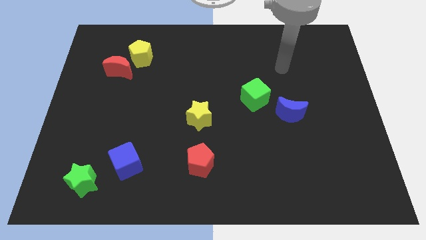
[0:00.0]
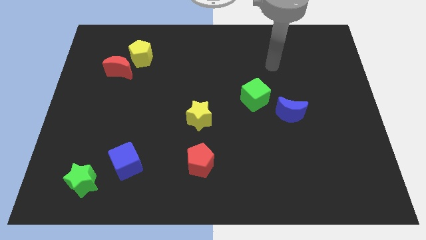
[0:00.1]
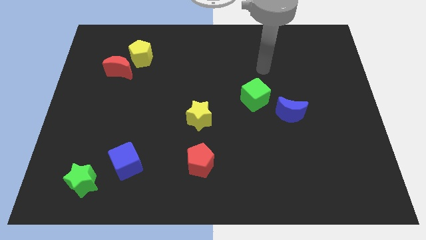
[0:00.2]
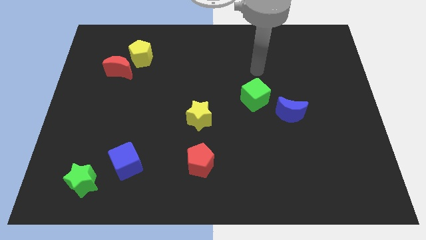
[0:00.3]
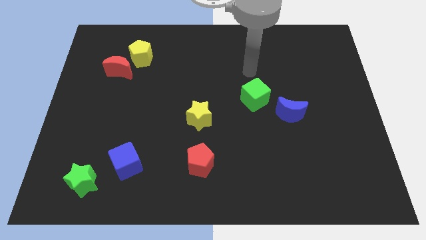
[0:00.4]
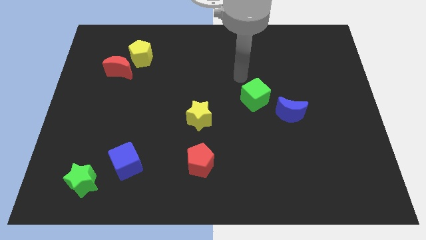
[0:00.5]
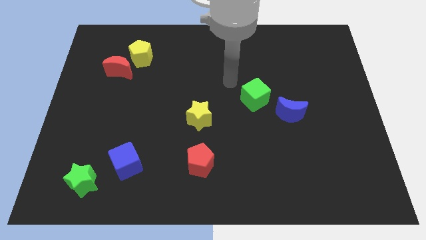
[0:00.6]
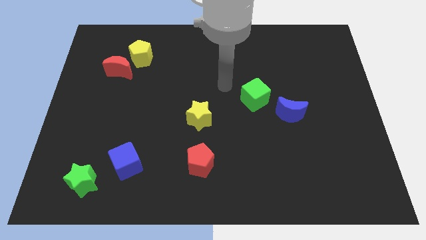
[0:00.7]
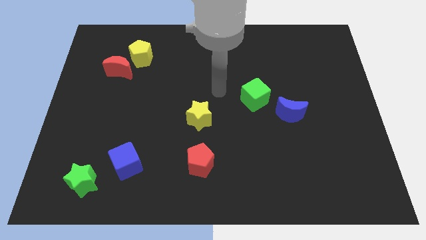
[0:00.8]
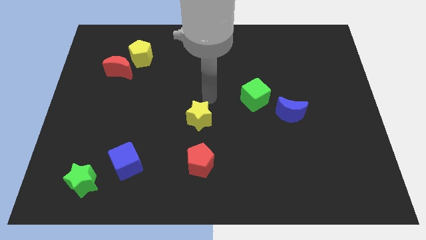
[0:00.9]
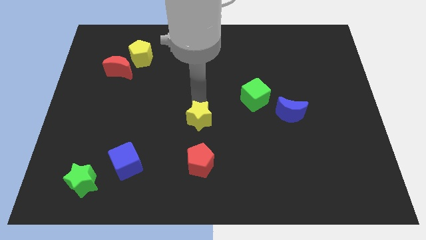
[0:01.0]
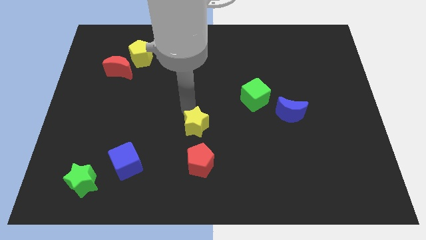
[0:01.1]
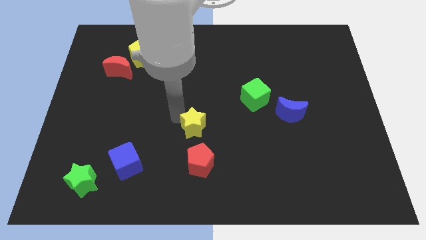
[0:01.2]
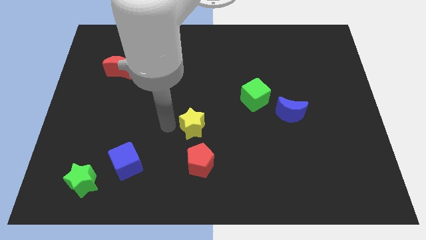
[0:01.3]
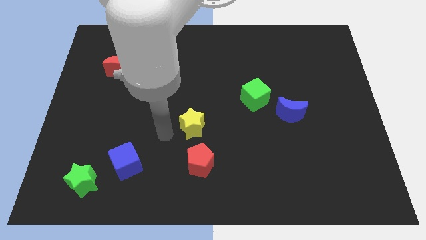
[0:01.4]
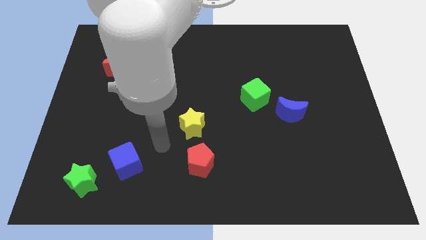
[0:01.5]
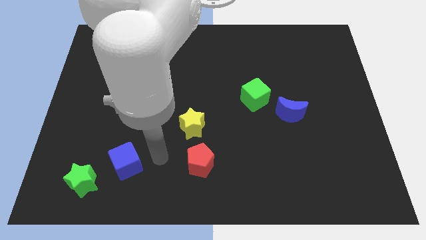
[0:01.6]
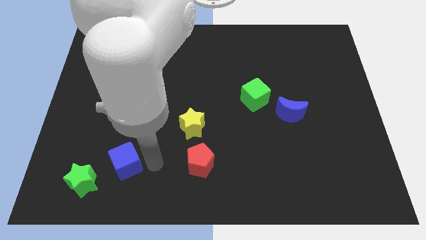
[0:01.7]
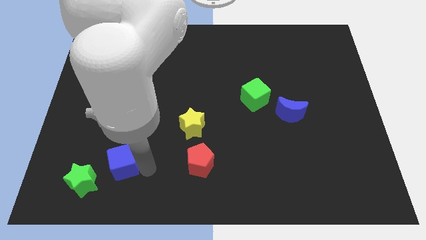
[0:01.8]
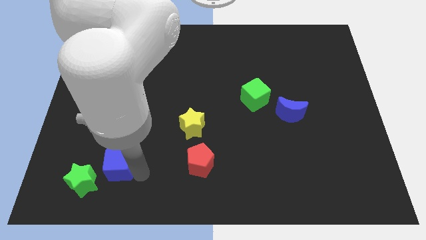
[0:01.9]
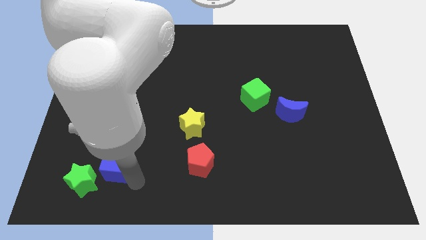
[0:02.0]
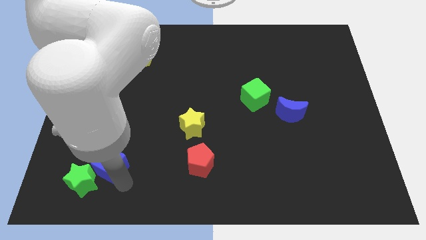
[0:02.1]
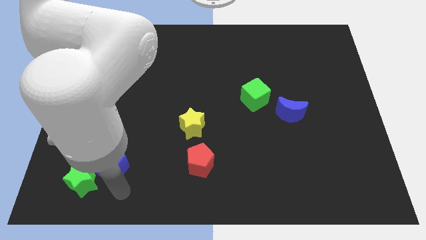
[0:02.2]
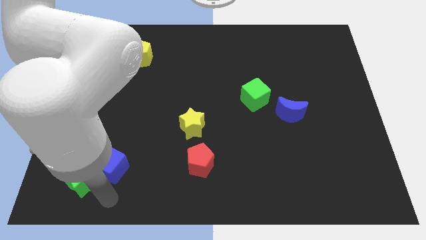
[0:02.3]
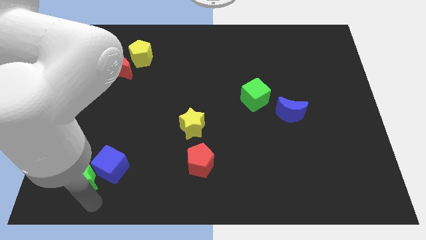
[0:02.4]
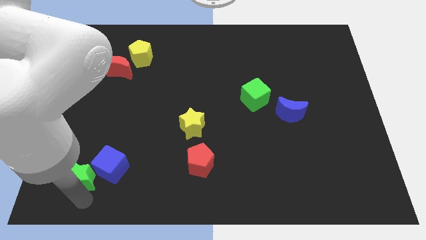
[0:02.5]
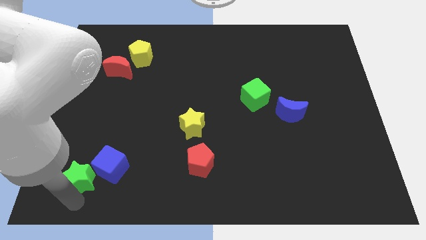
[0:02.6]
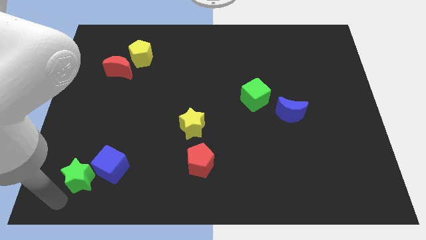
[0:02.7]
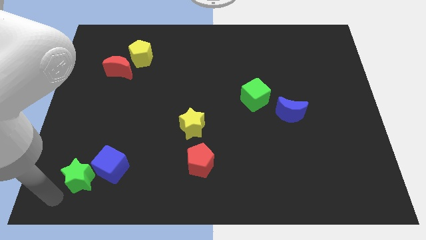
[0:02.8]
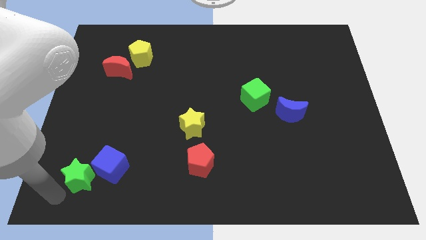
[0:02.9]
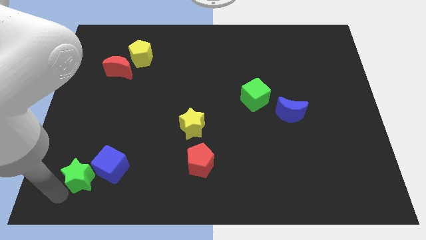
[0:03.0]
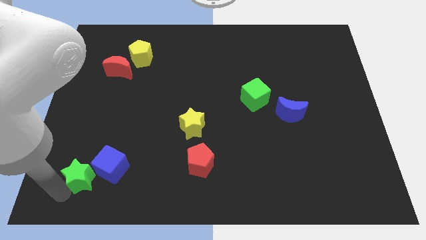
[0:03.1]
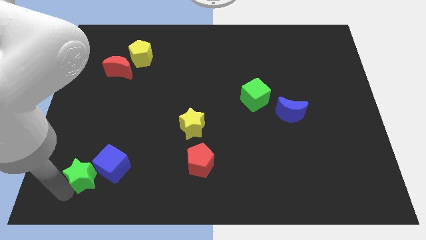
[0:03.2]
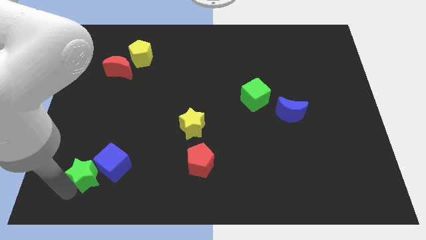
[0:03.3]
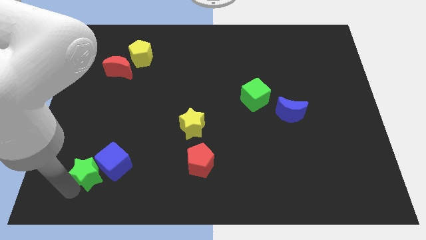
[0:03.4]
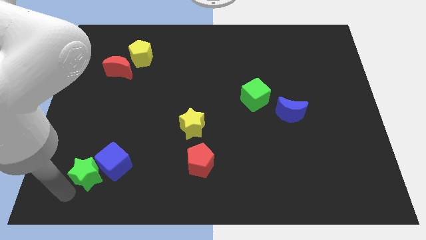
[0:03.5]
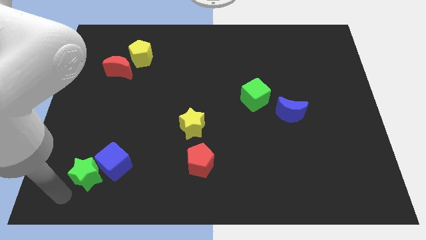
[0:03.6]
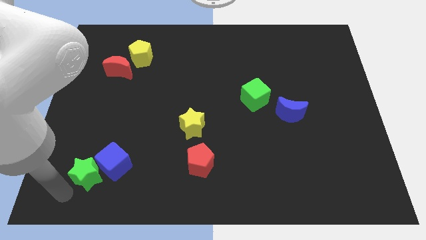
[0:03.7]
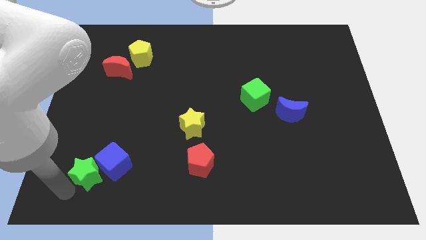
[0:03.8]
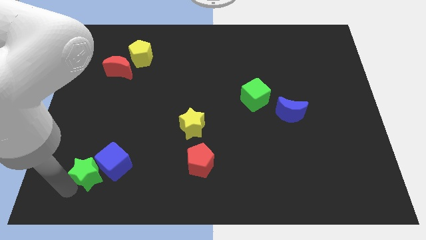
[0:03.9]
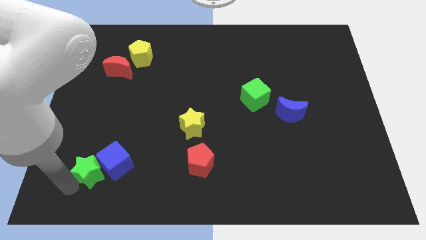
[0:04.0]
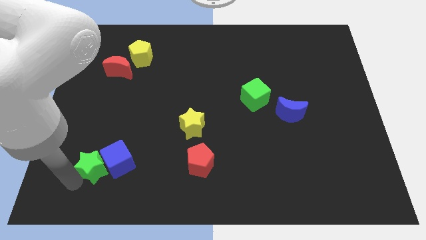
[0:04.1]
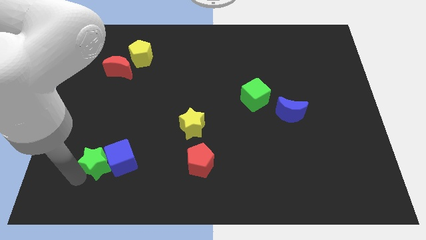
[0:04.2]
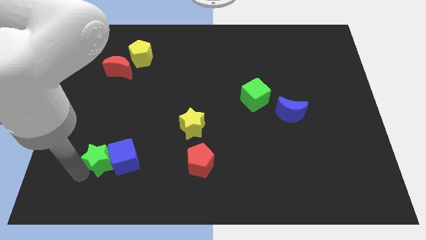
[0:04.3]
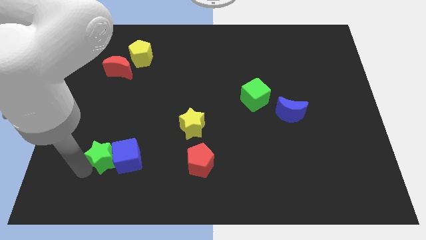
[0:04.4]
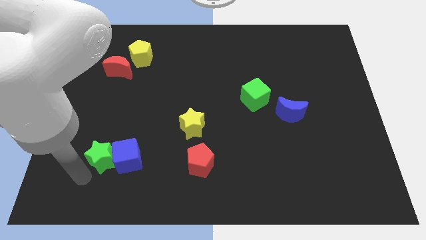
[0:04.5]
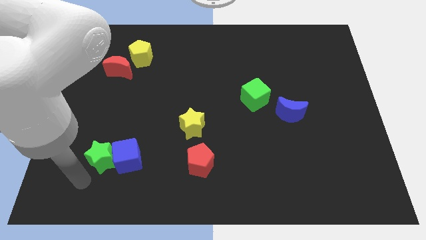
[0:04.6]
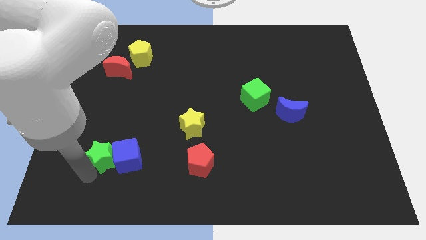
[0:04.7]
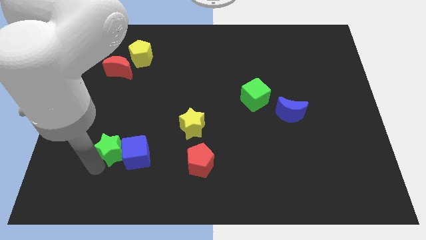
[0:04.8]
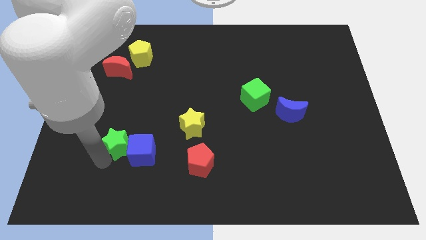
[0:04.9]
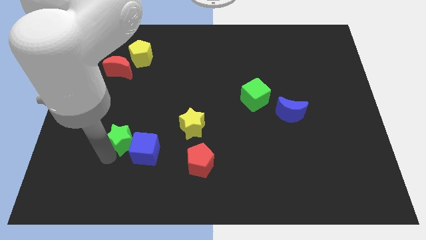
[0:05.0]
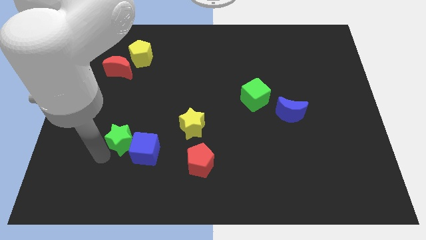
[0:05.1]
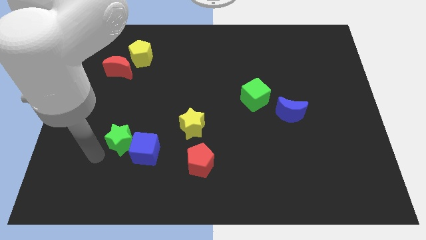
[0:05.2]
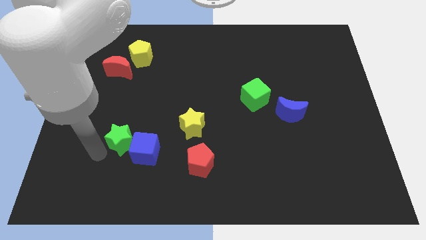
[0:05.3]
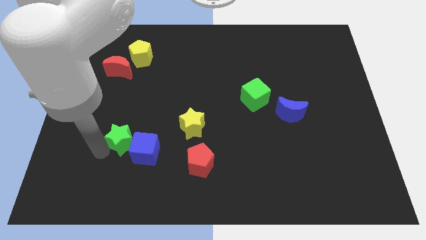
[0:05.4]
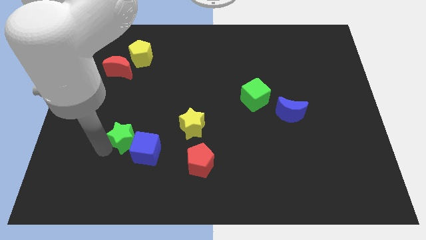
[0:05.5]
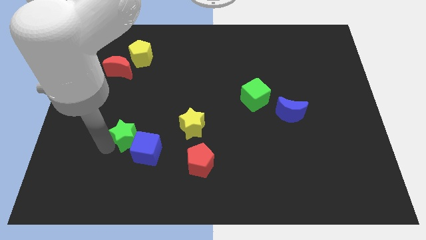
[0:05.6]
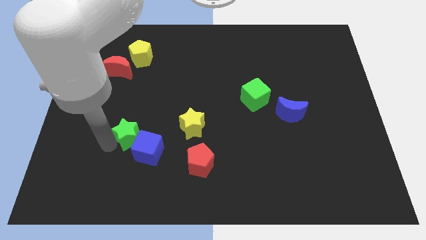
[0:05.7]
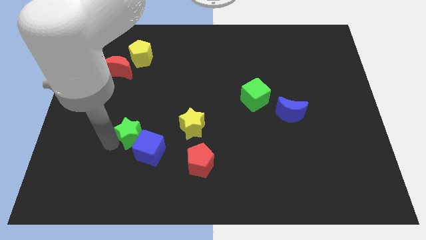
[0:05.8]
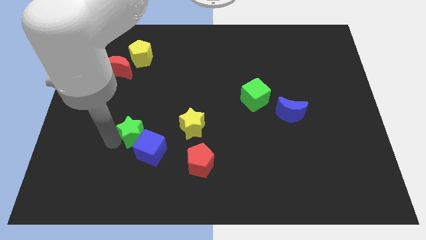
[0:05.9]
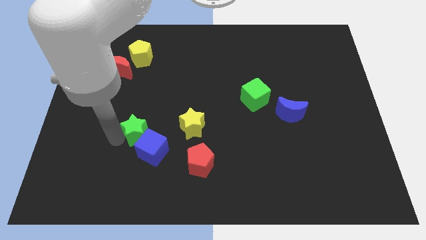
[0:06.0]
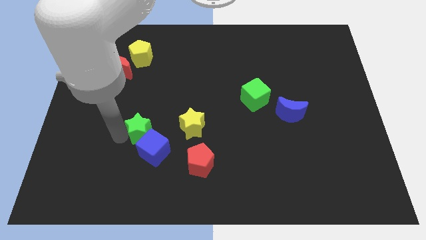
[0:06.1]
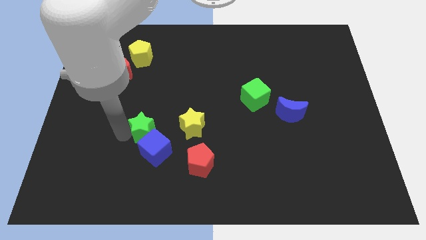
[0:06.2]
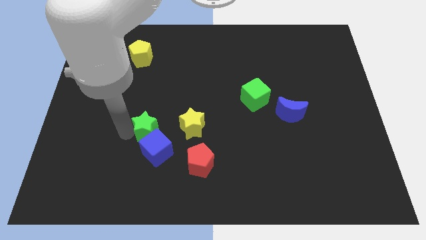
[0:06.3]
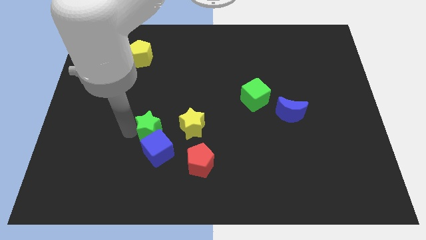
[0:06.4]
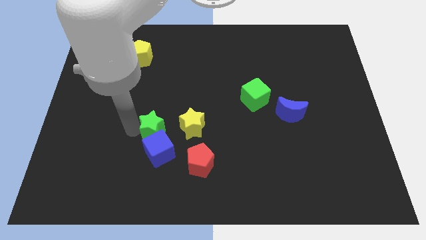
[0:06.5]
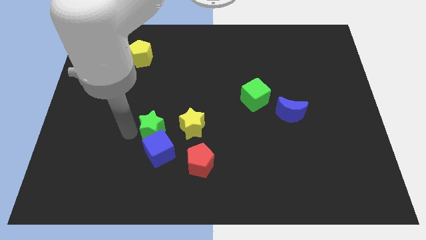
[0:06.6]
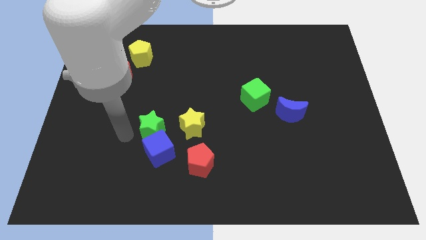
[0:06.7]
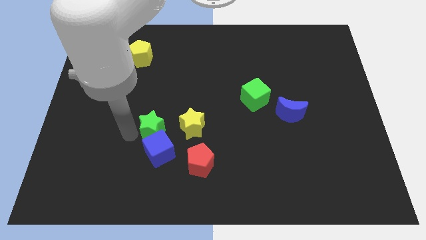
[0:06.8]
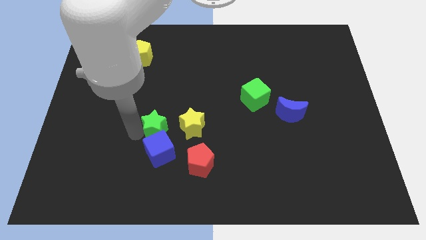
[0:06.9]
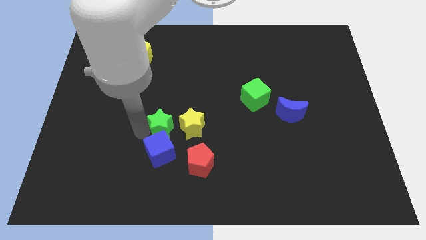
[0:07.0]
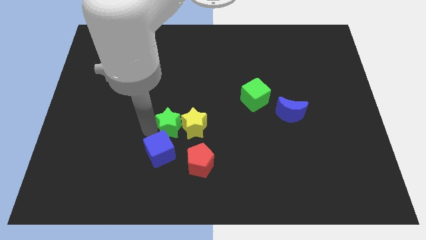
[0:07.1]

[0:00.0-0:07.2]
move the green star to the yellow star
